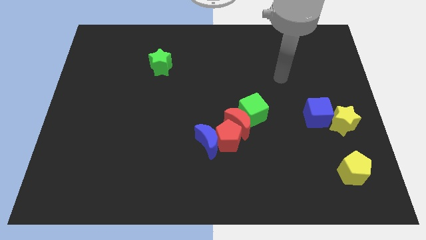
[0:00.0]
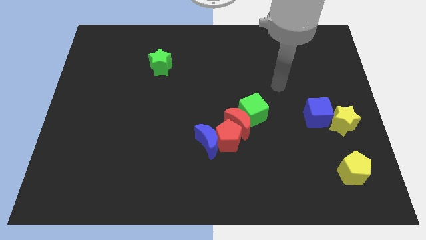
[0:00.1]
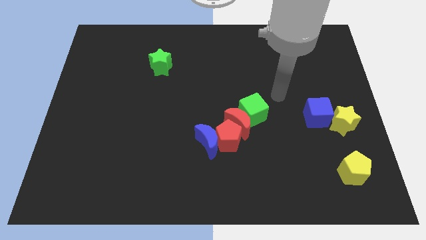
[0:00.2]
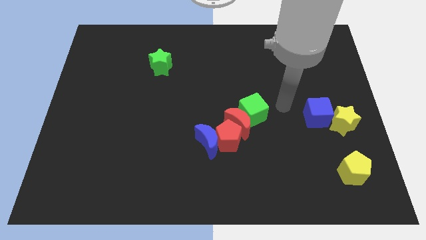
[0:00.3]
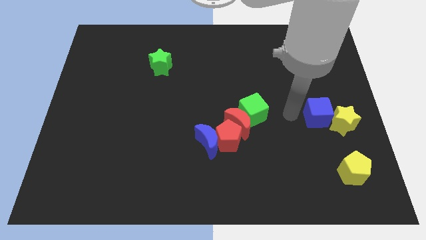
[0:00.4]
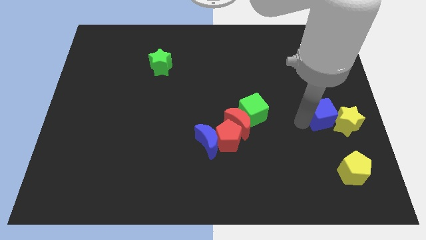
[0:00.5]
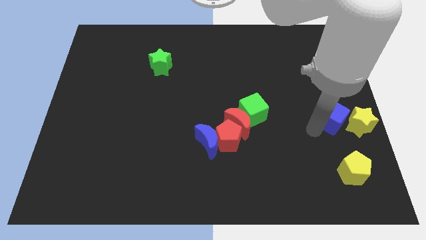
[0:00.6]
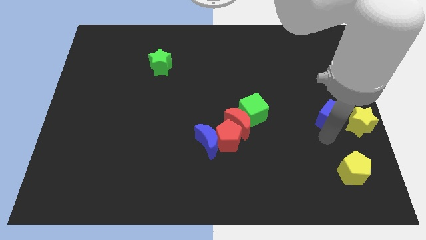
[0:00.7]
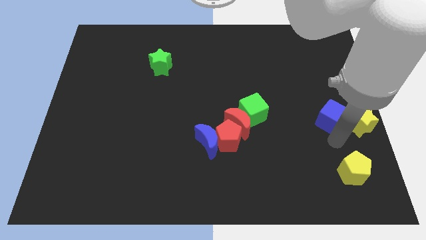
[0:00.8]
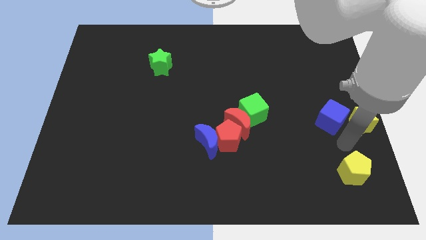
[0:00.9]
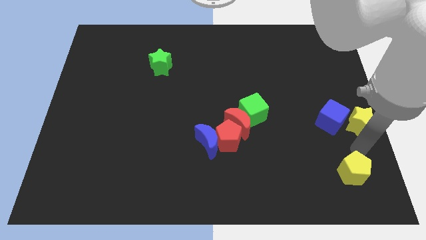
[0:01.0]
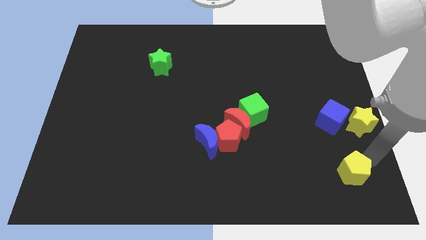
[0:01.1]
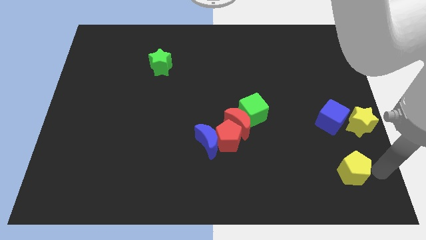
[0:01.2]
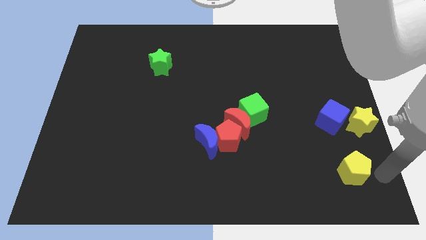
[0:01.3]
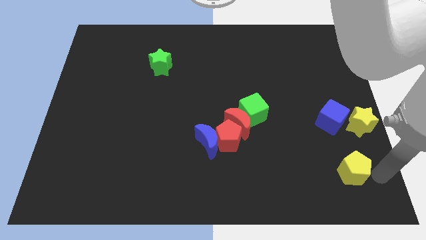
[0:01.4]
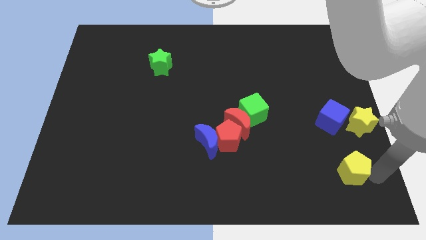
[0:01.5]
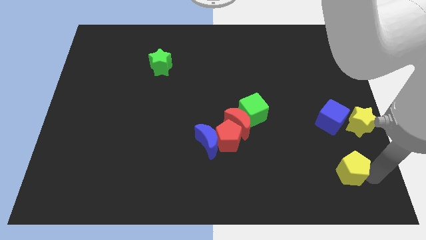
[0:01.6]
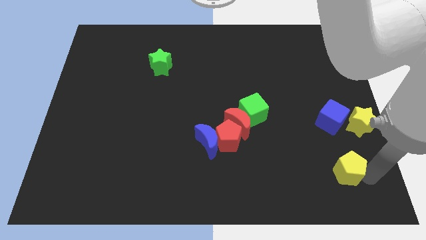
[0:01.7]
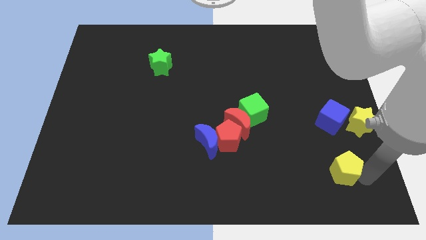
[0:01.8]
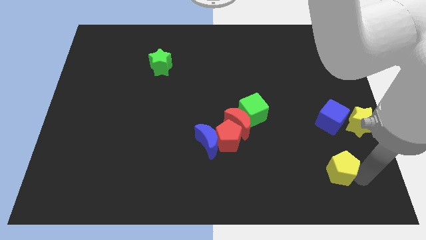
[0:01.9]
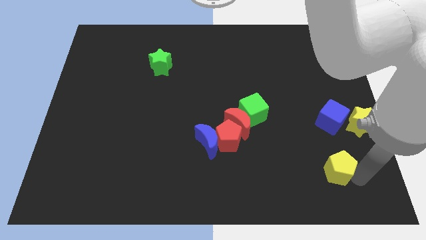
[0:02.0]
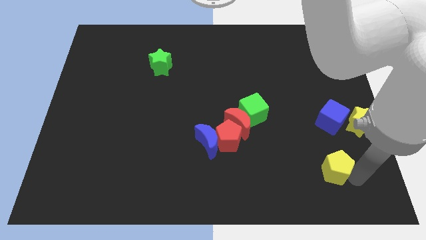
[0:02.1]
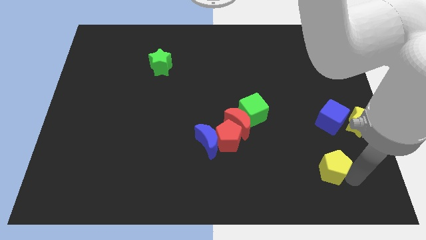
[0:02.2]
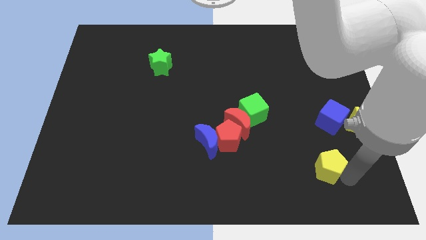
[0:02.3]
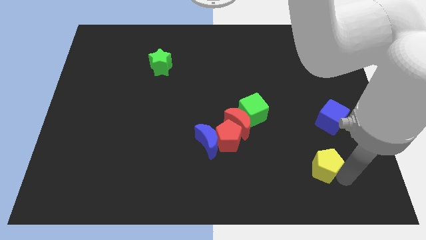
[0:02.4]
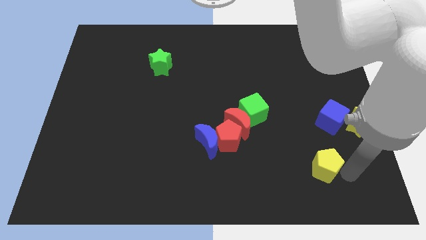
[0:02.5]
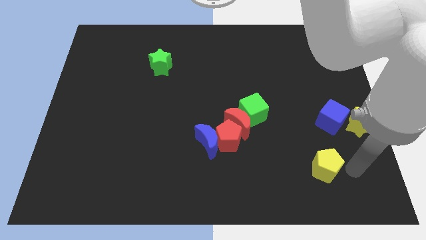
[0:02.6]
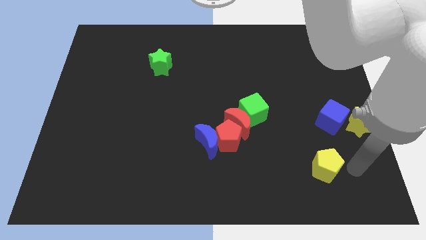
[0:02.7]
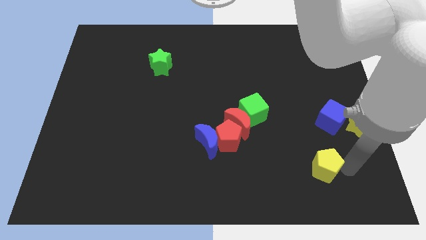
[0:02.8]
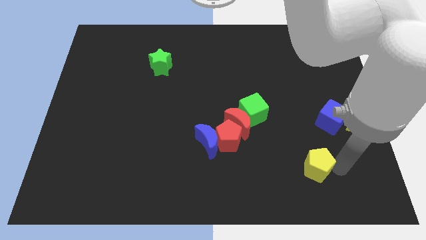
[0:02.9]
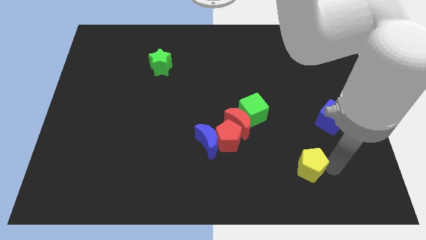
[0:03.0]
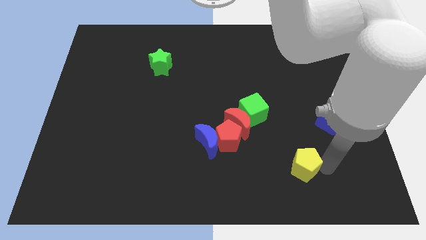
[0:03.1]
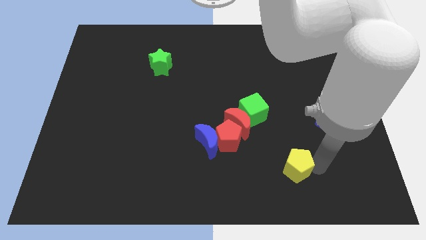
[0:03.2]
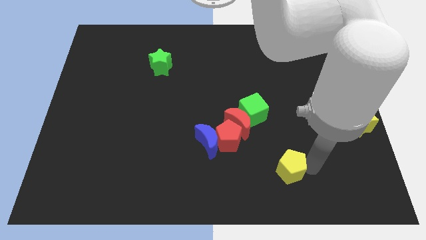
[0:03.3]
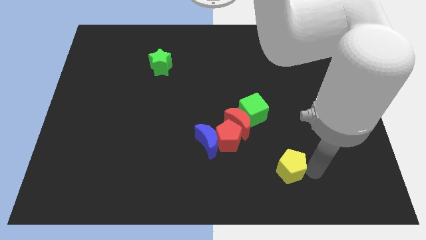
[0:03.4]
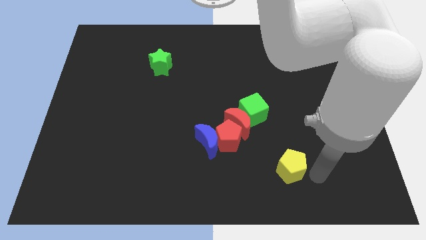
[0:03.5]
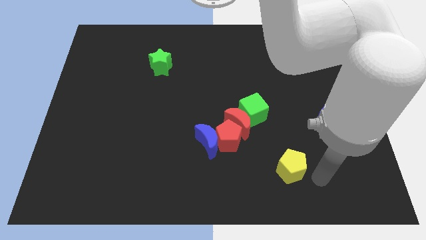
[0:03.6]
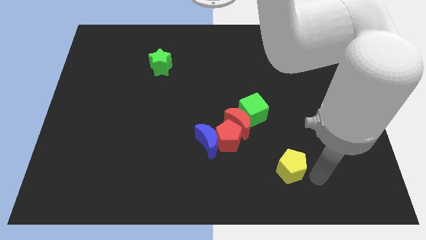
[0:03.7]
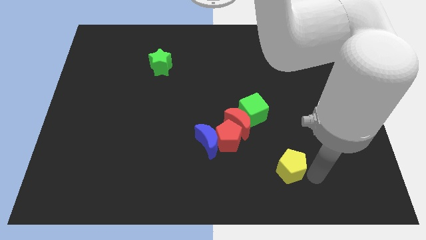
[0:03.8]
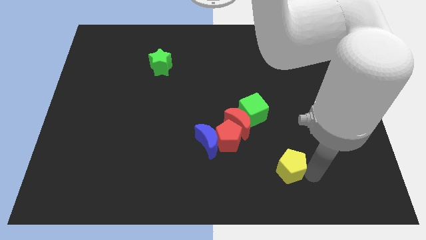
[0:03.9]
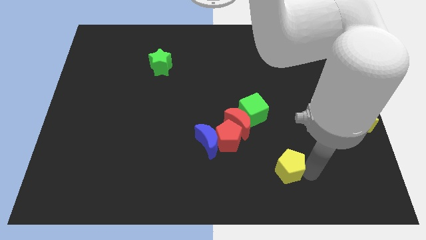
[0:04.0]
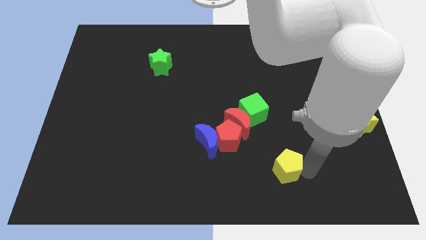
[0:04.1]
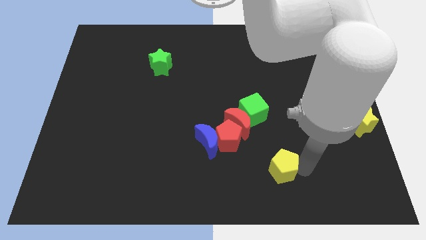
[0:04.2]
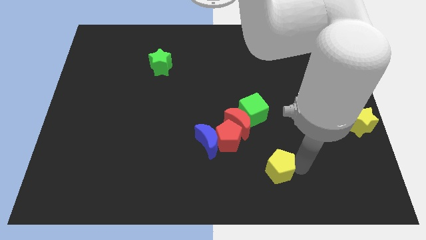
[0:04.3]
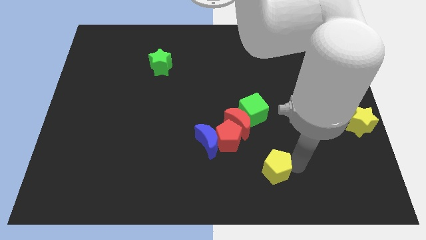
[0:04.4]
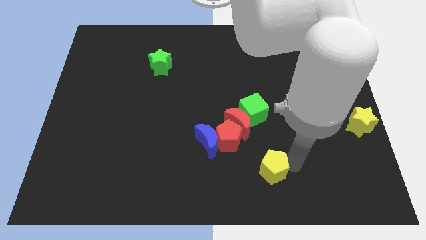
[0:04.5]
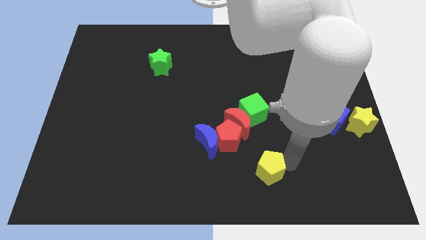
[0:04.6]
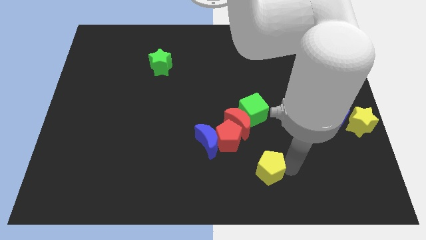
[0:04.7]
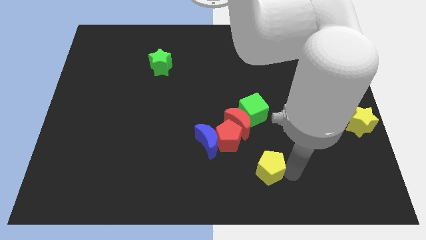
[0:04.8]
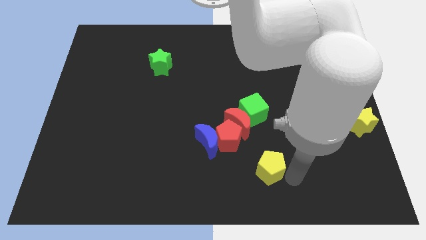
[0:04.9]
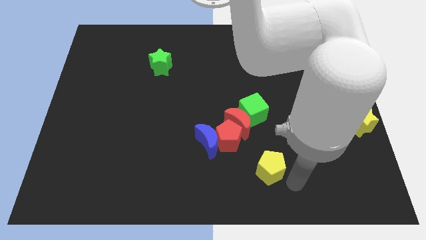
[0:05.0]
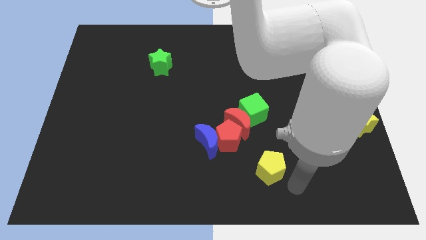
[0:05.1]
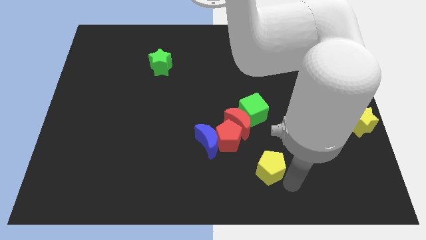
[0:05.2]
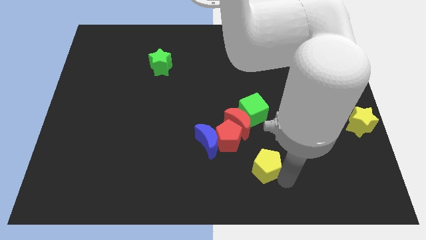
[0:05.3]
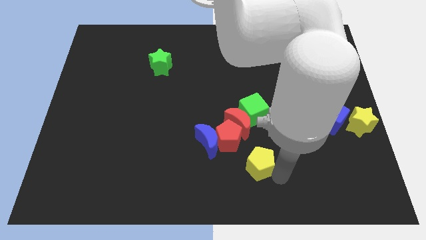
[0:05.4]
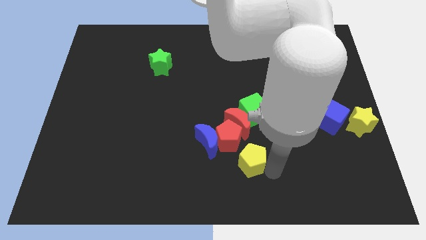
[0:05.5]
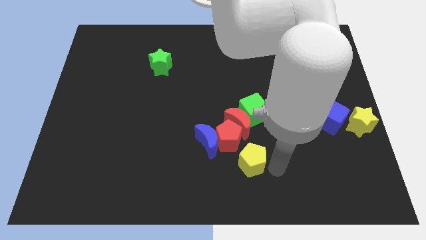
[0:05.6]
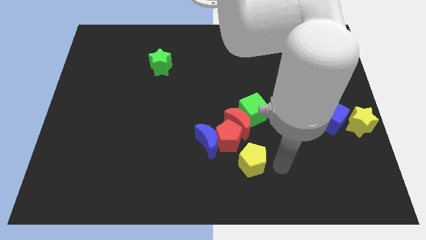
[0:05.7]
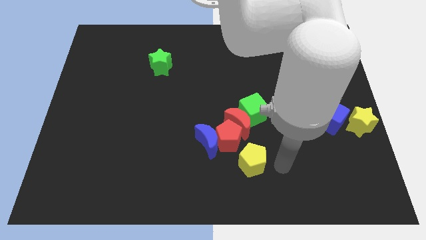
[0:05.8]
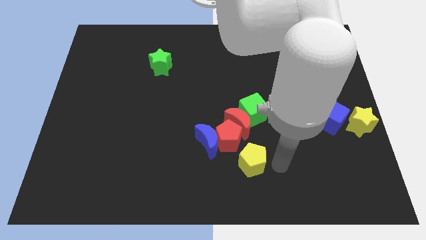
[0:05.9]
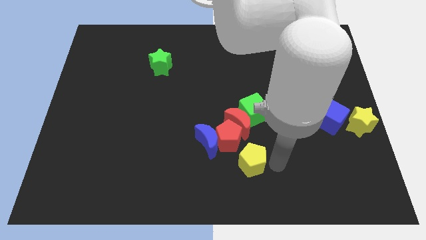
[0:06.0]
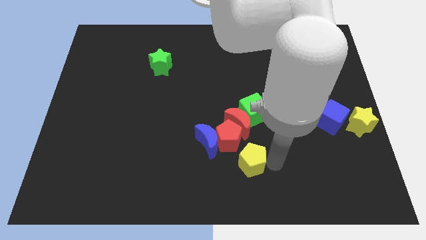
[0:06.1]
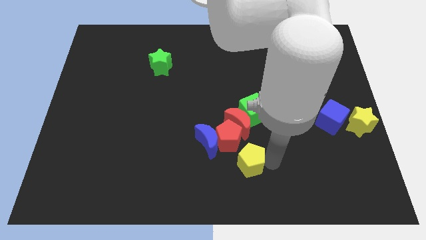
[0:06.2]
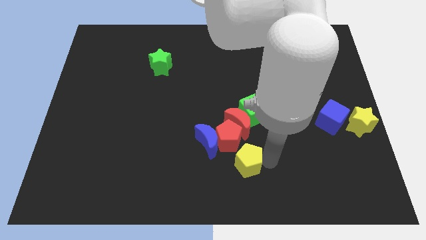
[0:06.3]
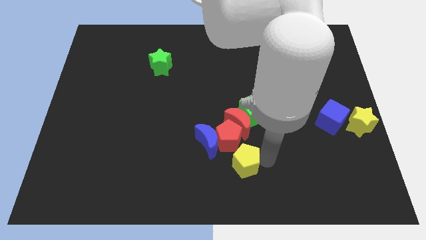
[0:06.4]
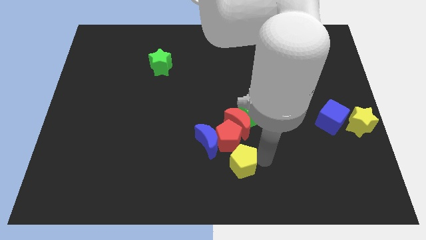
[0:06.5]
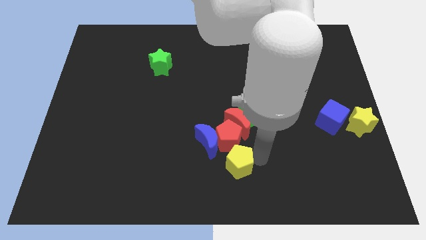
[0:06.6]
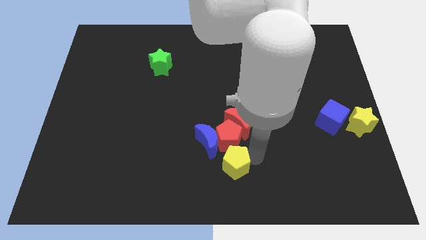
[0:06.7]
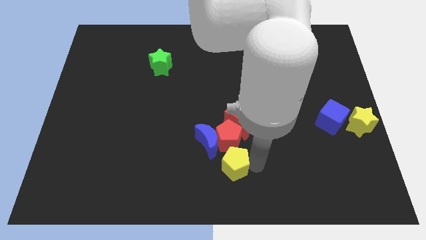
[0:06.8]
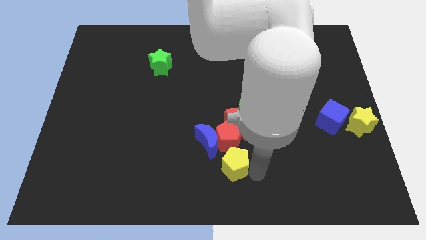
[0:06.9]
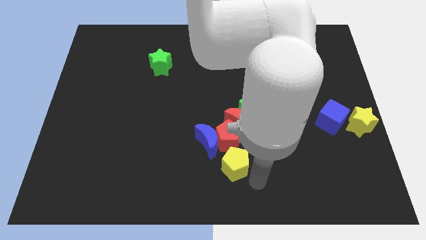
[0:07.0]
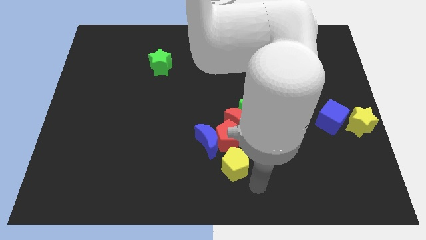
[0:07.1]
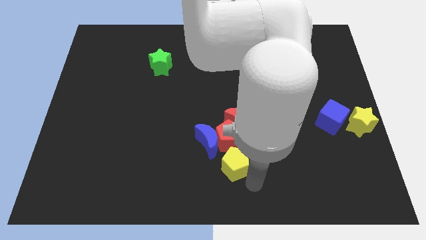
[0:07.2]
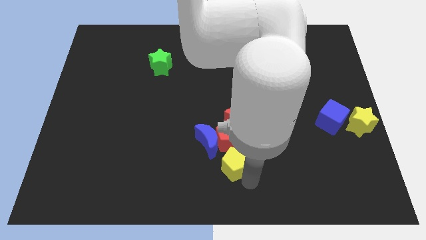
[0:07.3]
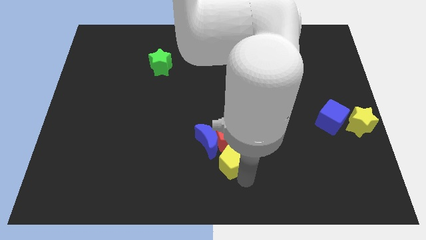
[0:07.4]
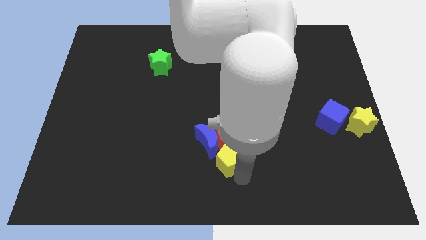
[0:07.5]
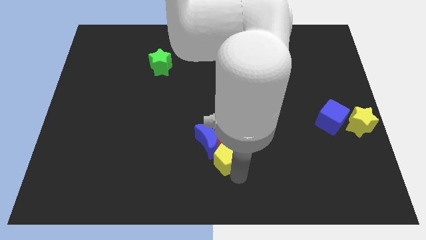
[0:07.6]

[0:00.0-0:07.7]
put the yellow pentagon close to the blue moon
